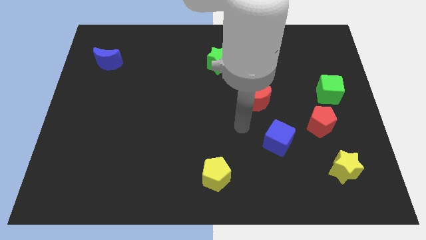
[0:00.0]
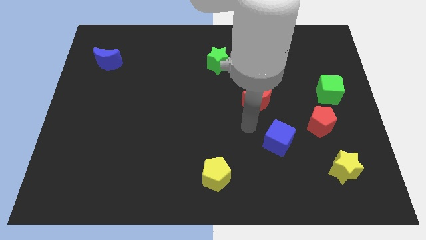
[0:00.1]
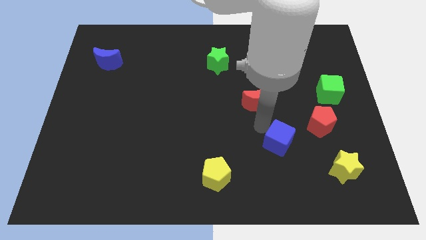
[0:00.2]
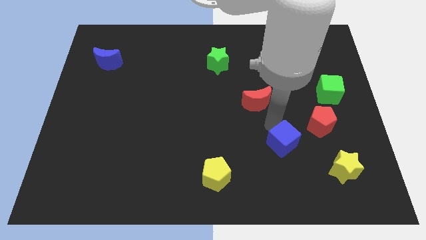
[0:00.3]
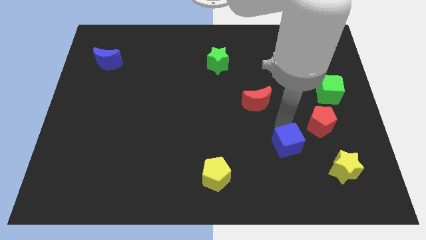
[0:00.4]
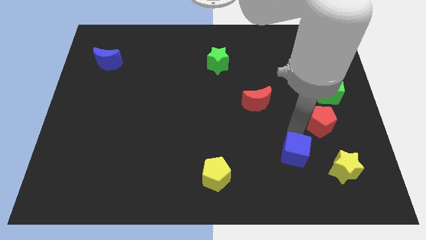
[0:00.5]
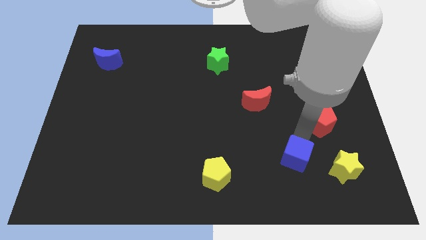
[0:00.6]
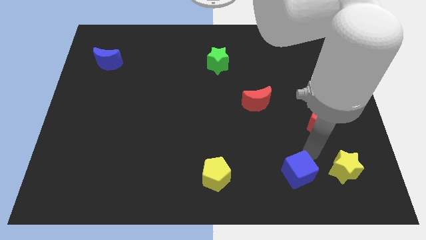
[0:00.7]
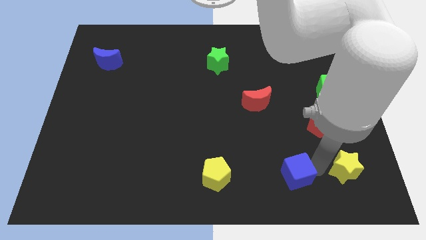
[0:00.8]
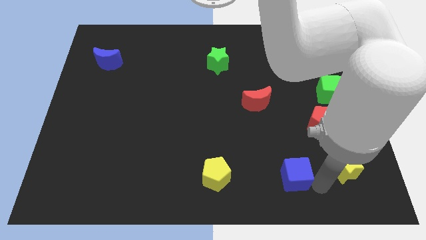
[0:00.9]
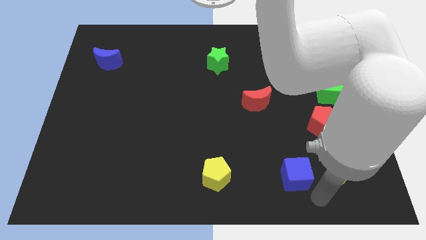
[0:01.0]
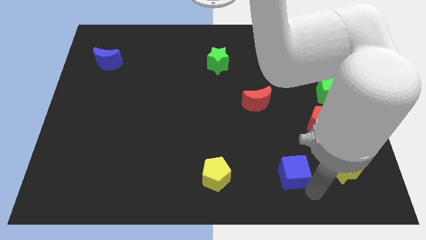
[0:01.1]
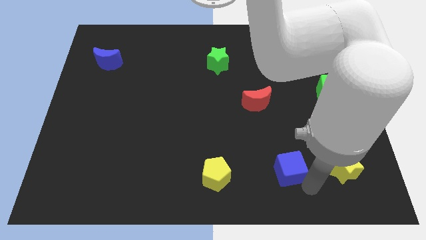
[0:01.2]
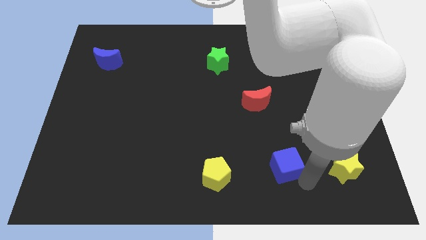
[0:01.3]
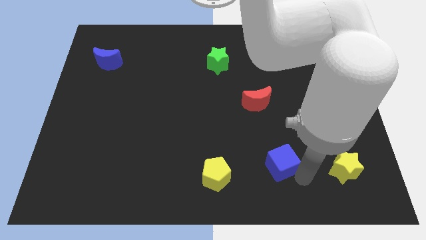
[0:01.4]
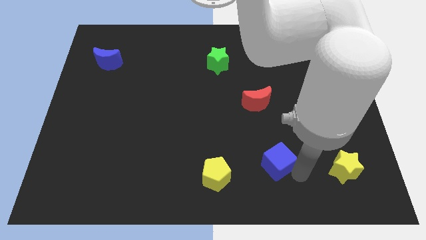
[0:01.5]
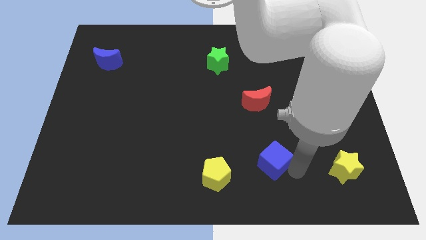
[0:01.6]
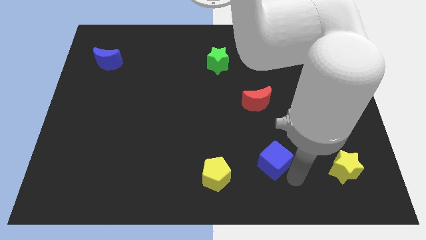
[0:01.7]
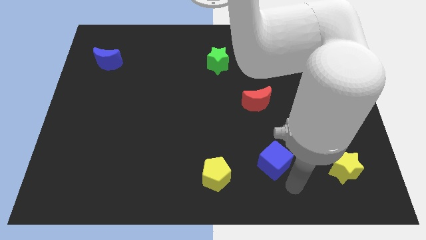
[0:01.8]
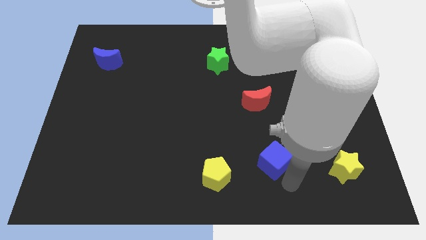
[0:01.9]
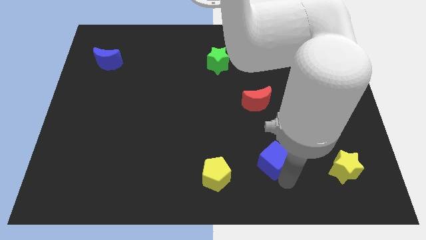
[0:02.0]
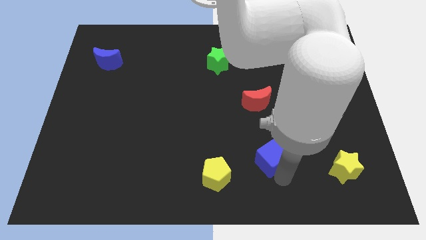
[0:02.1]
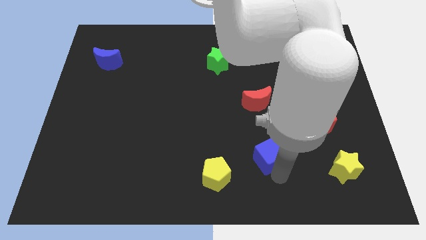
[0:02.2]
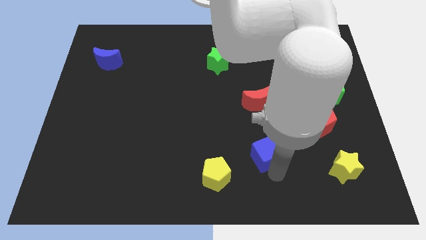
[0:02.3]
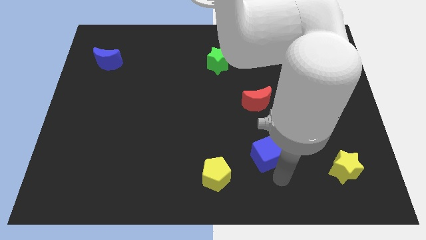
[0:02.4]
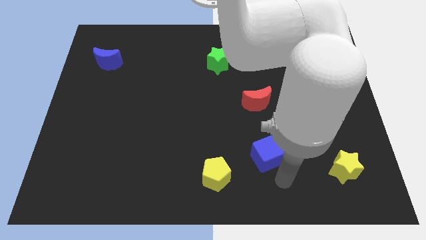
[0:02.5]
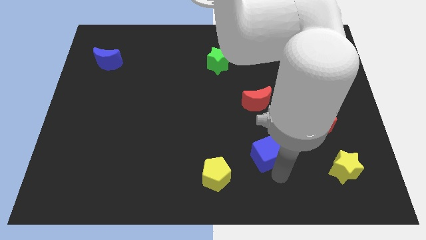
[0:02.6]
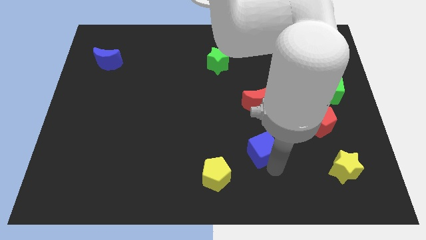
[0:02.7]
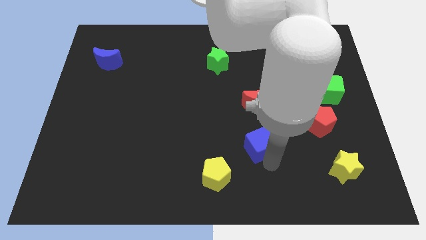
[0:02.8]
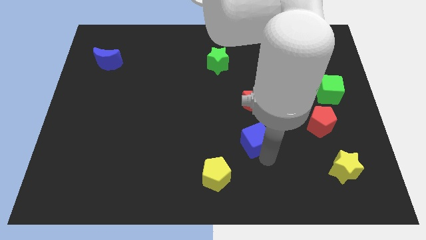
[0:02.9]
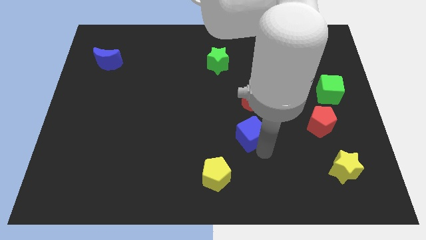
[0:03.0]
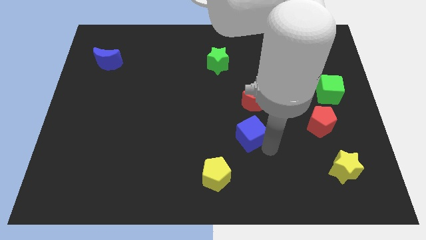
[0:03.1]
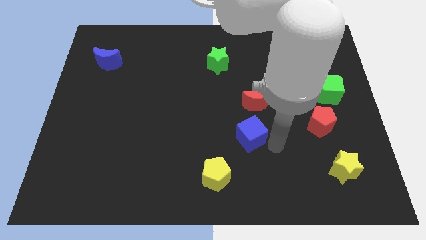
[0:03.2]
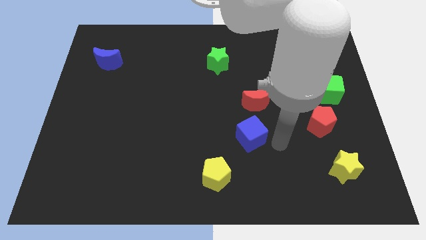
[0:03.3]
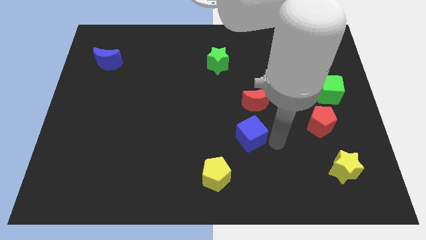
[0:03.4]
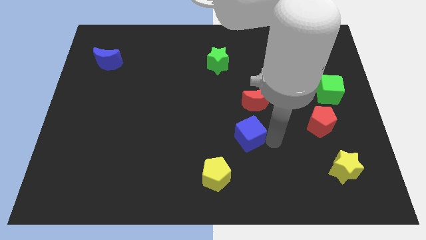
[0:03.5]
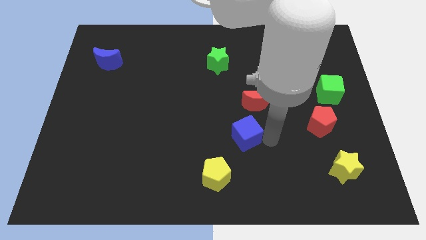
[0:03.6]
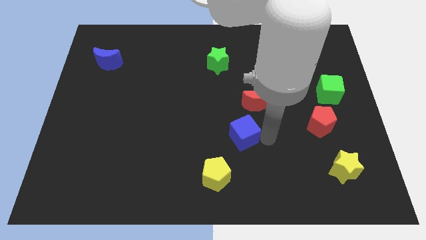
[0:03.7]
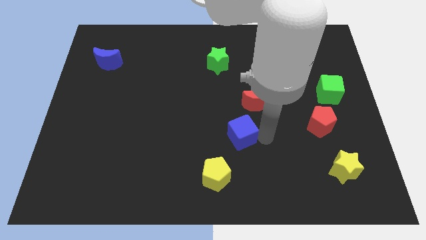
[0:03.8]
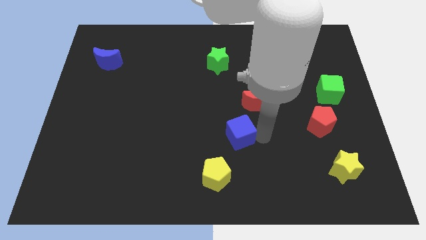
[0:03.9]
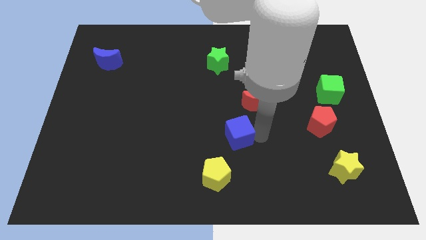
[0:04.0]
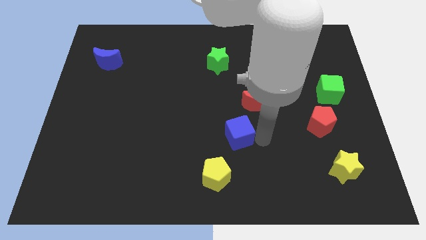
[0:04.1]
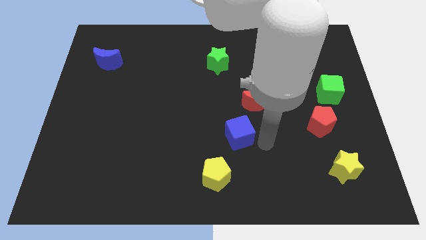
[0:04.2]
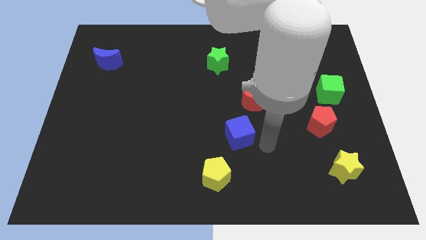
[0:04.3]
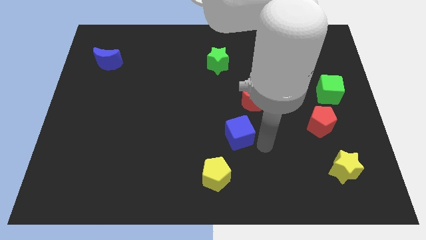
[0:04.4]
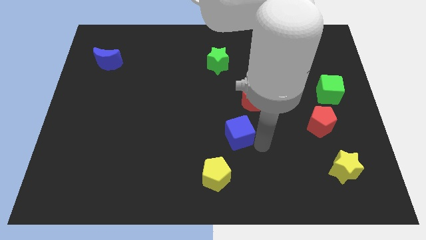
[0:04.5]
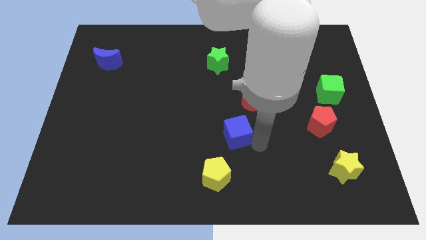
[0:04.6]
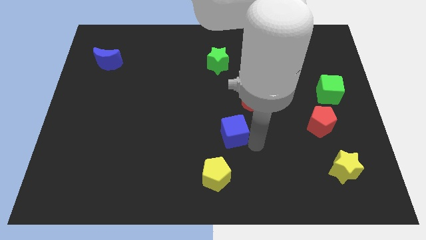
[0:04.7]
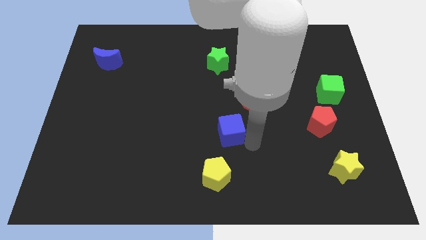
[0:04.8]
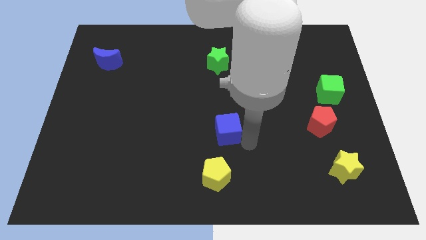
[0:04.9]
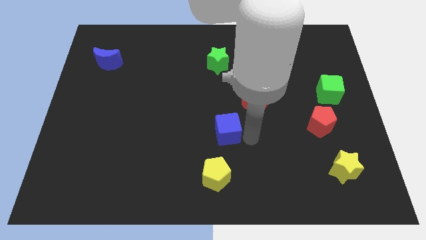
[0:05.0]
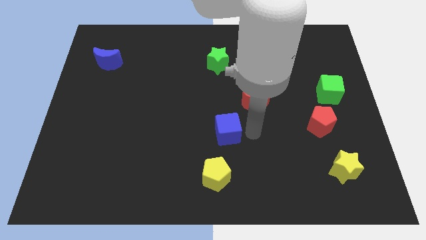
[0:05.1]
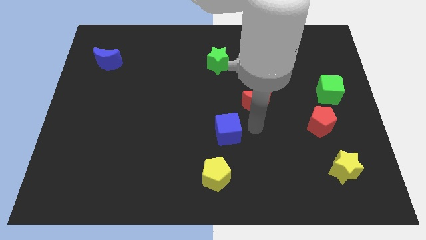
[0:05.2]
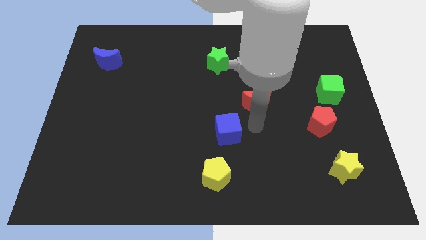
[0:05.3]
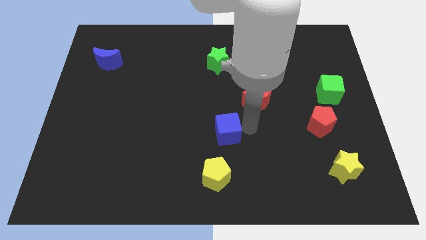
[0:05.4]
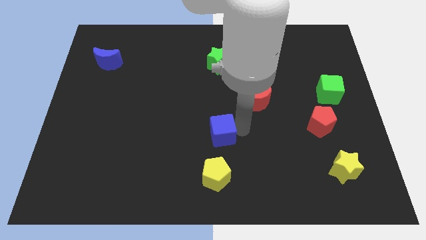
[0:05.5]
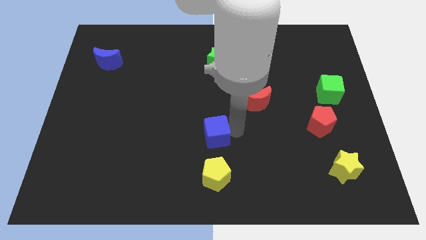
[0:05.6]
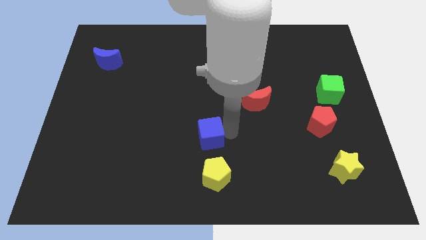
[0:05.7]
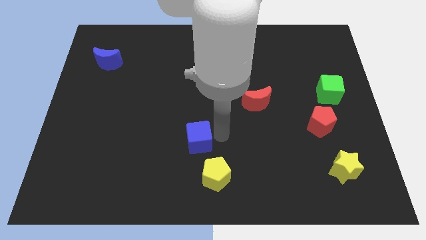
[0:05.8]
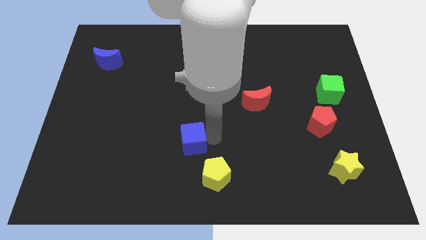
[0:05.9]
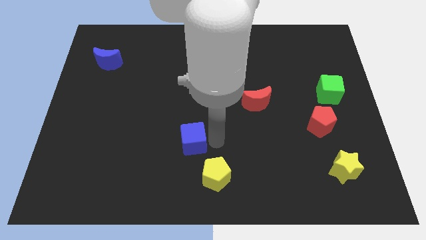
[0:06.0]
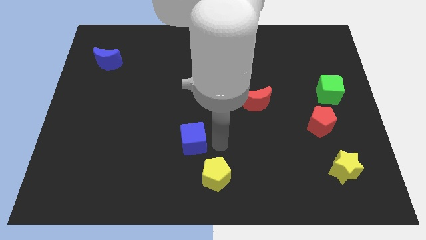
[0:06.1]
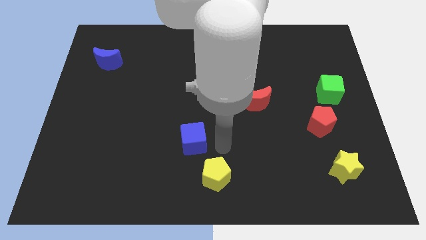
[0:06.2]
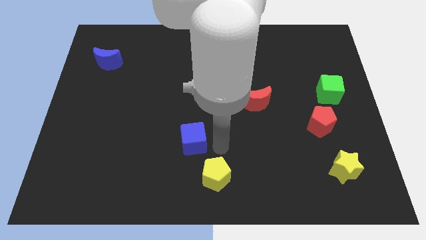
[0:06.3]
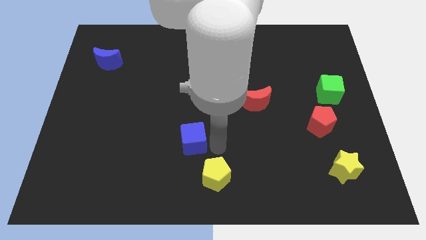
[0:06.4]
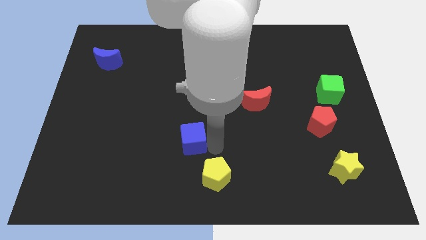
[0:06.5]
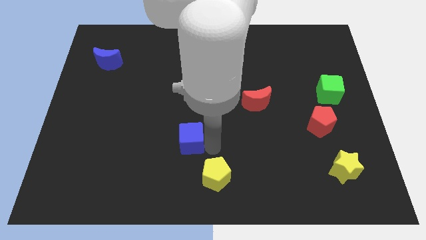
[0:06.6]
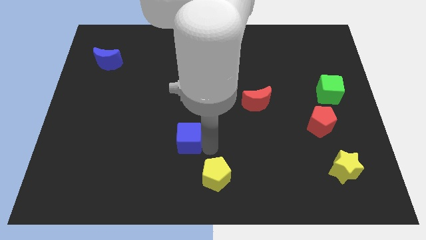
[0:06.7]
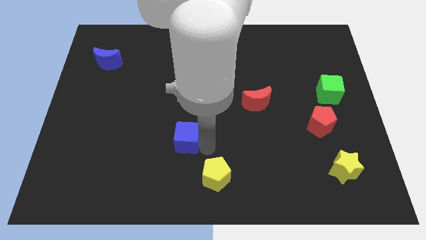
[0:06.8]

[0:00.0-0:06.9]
push the blue cube to the left

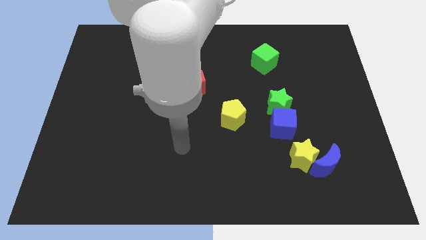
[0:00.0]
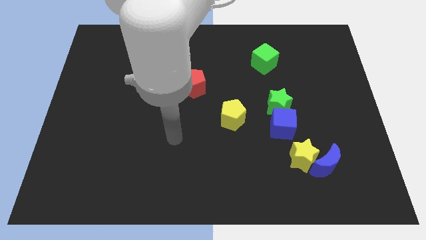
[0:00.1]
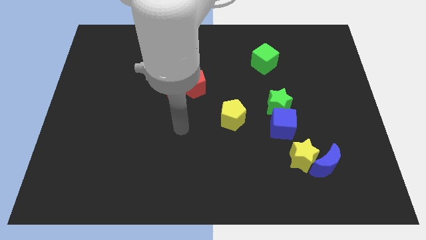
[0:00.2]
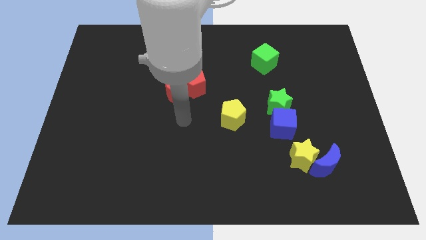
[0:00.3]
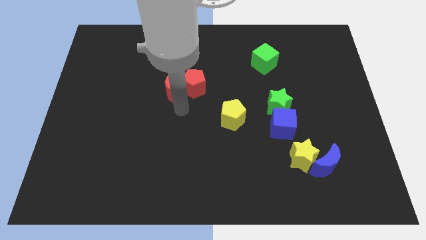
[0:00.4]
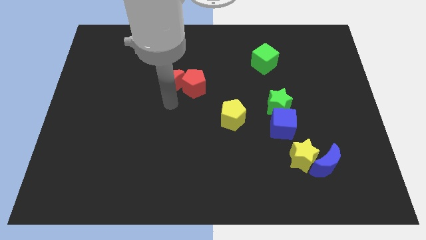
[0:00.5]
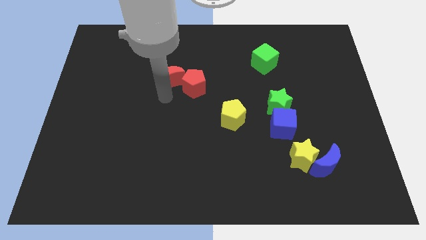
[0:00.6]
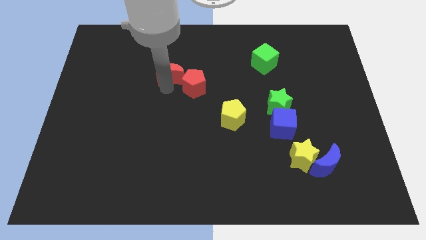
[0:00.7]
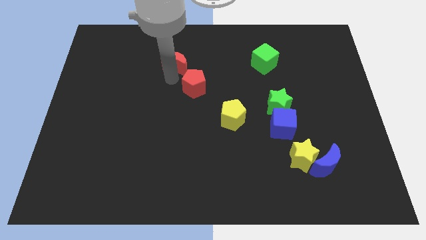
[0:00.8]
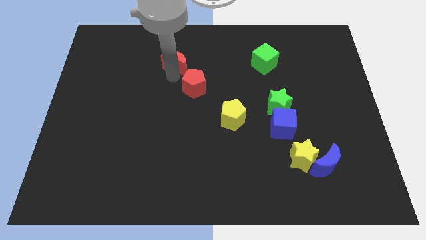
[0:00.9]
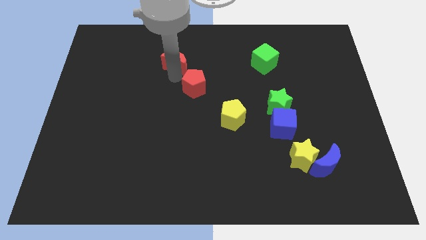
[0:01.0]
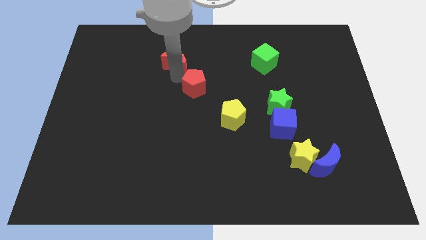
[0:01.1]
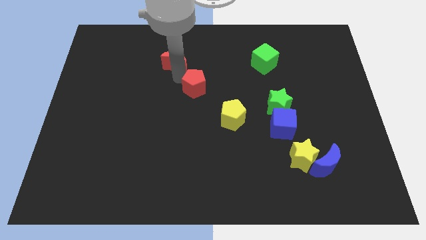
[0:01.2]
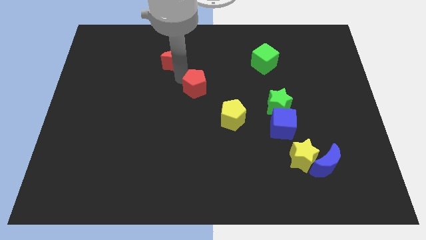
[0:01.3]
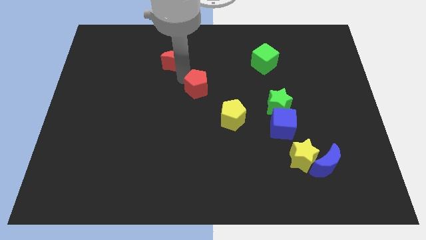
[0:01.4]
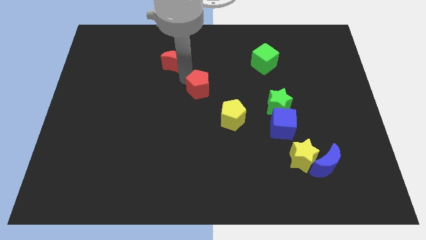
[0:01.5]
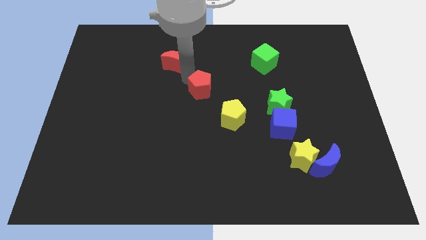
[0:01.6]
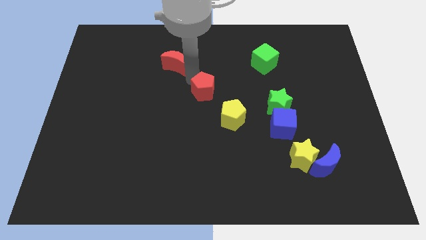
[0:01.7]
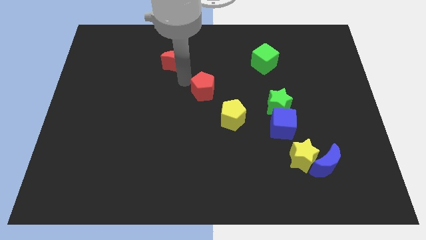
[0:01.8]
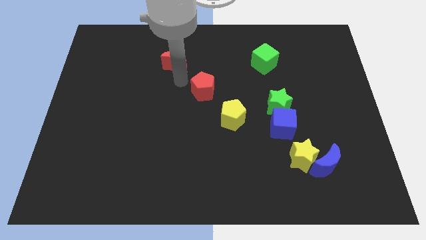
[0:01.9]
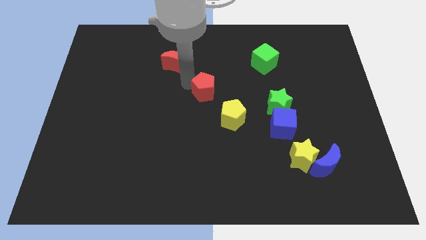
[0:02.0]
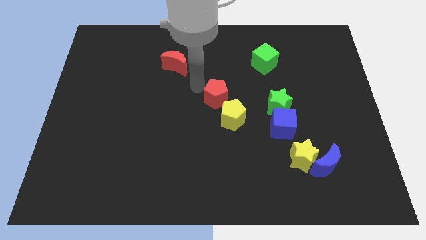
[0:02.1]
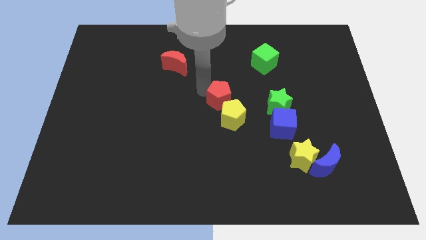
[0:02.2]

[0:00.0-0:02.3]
slide the red pentagon a little bit downwards and to the right
